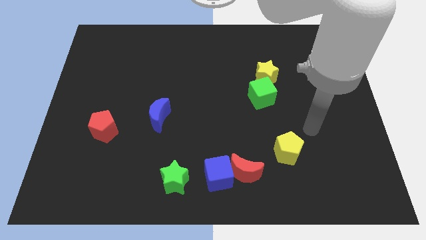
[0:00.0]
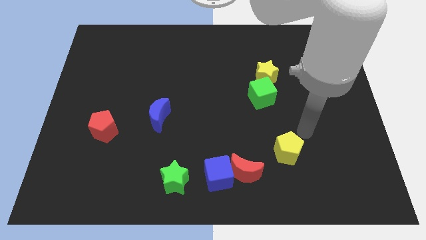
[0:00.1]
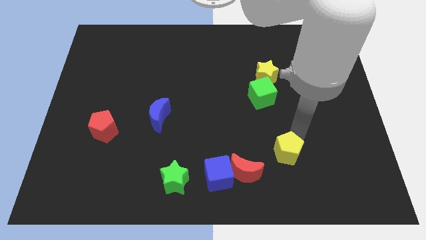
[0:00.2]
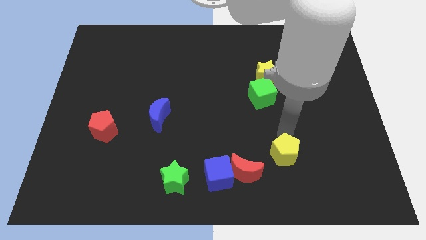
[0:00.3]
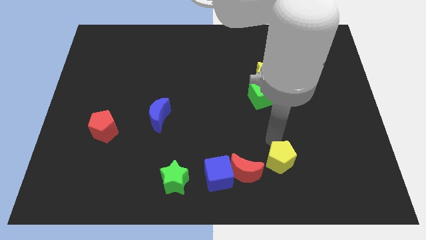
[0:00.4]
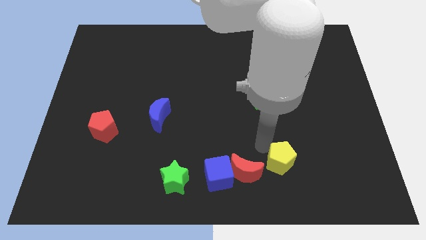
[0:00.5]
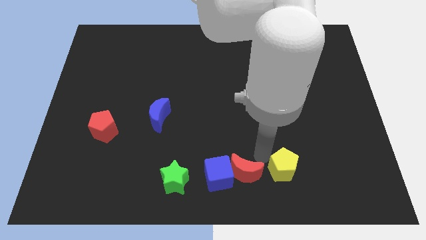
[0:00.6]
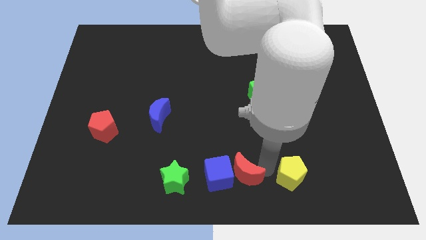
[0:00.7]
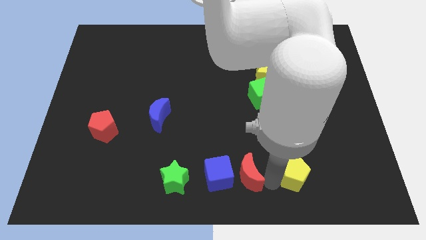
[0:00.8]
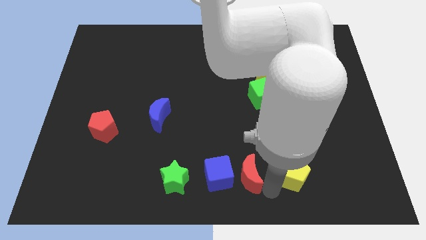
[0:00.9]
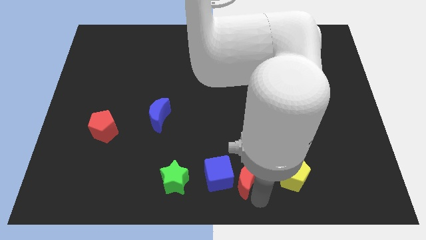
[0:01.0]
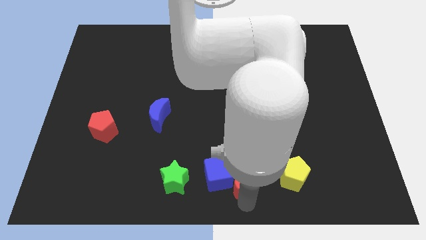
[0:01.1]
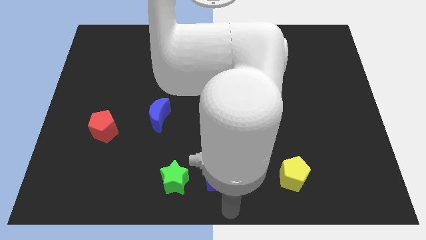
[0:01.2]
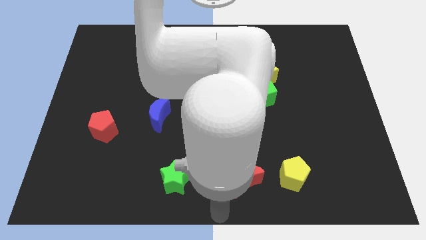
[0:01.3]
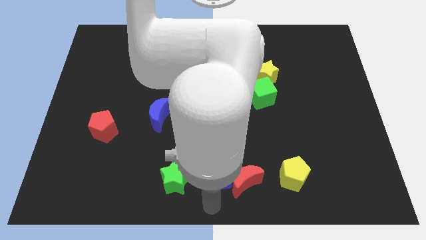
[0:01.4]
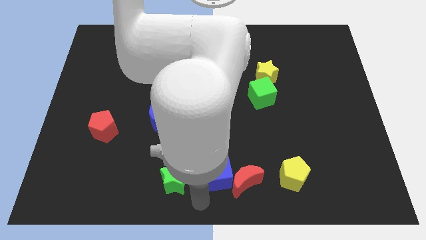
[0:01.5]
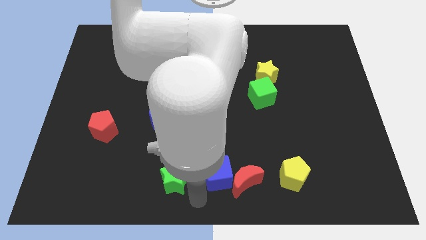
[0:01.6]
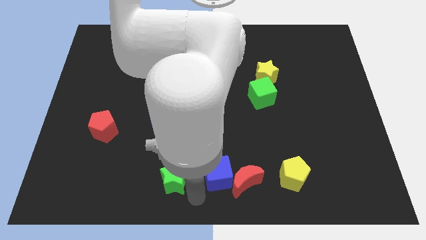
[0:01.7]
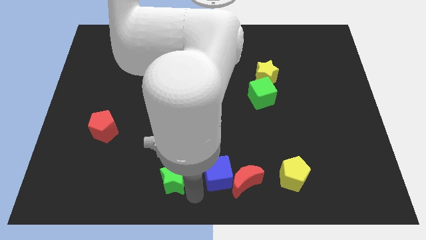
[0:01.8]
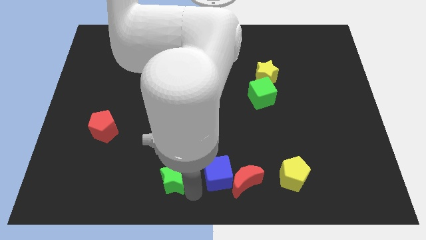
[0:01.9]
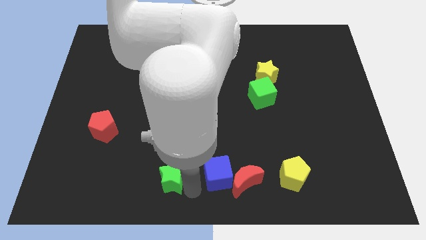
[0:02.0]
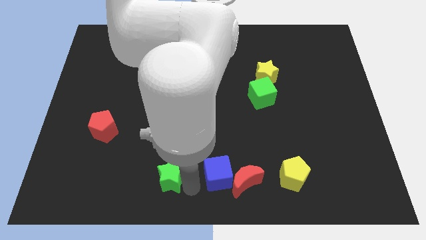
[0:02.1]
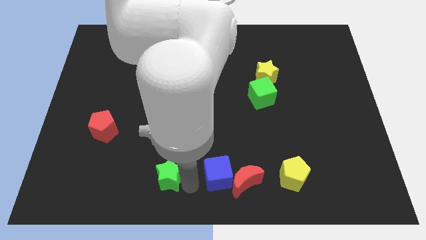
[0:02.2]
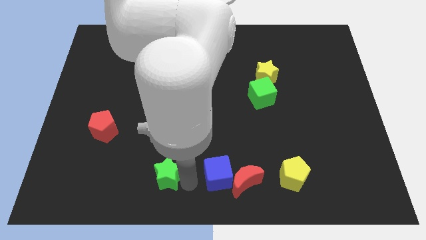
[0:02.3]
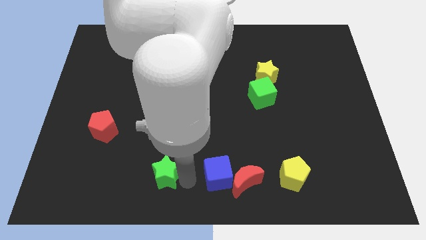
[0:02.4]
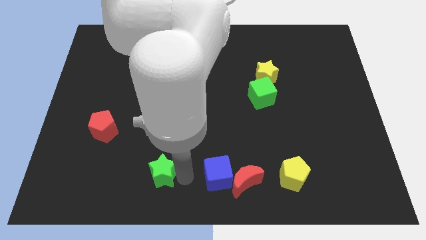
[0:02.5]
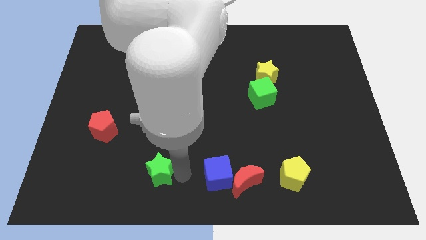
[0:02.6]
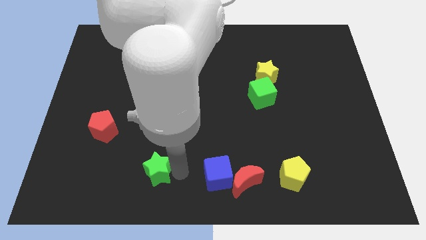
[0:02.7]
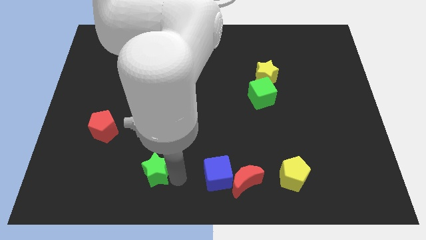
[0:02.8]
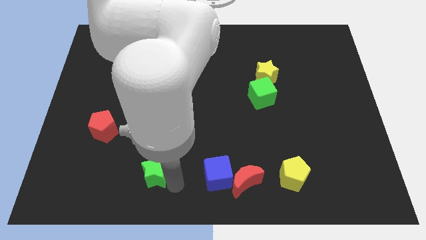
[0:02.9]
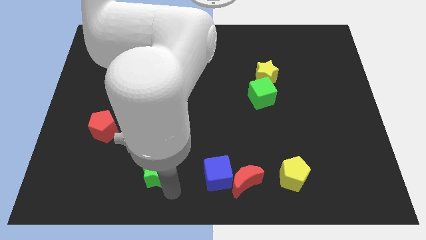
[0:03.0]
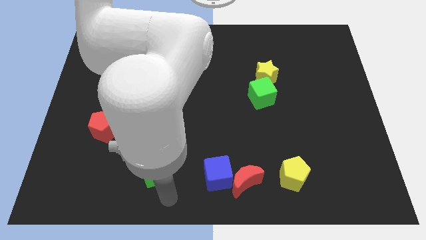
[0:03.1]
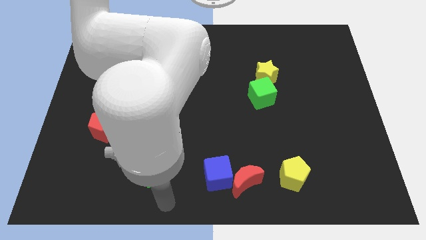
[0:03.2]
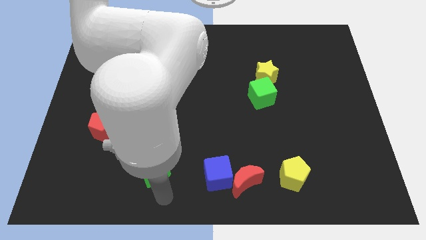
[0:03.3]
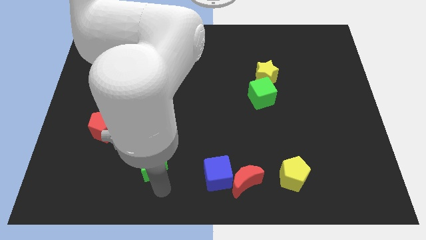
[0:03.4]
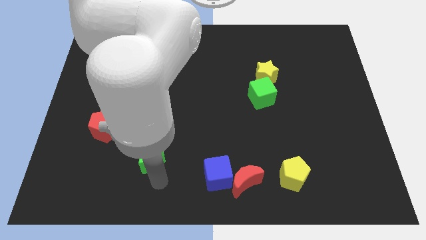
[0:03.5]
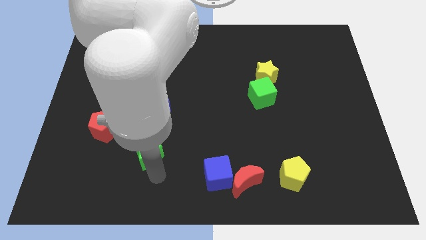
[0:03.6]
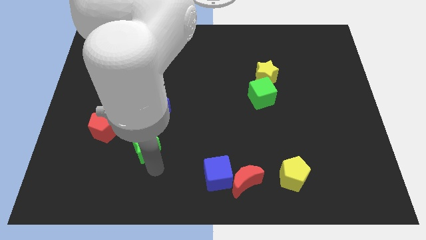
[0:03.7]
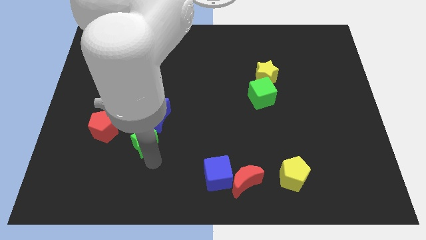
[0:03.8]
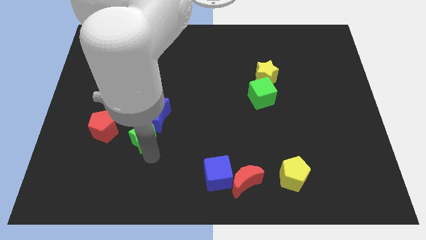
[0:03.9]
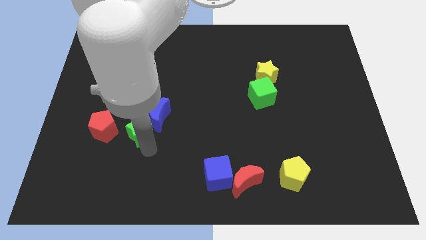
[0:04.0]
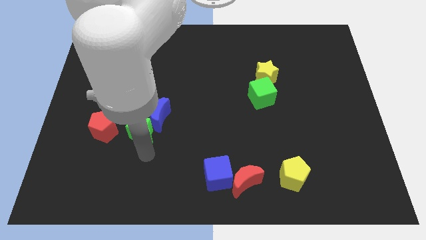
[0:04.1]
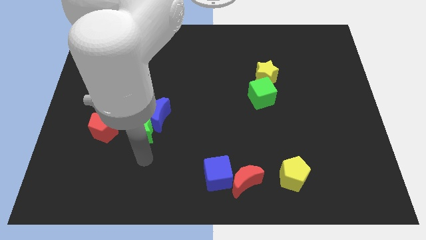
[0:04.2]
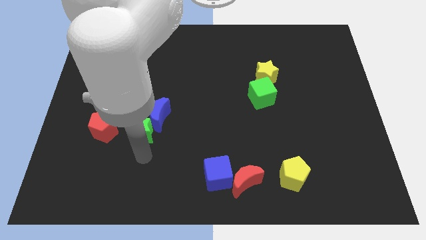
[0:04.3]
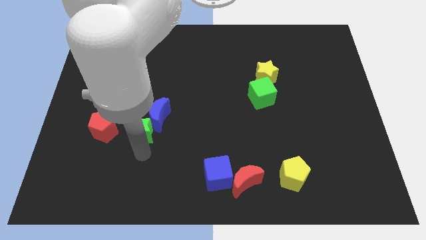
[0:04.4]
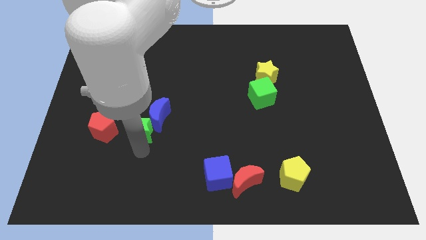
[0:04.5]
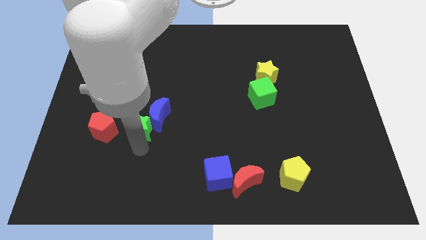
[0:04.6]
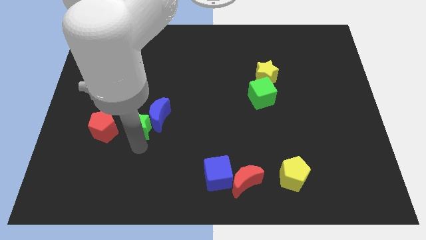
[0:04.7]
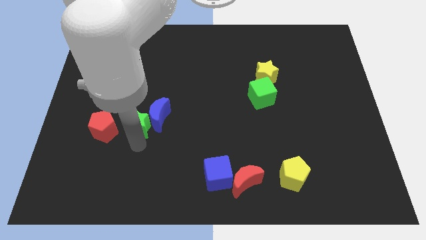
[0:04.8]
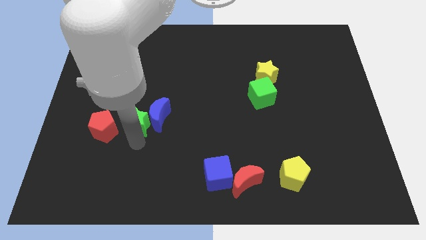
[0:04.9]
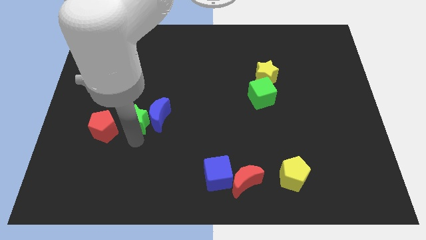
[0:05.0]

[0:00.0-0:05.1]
push the green star diagonally up and to the left of the blue moon

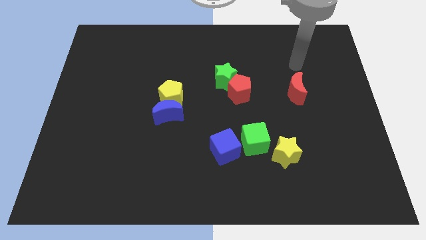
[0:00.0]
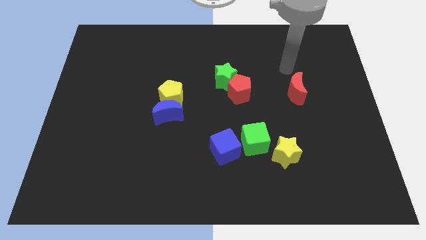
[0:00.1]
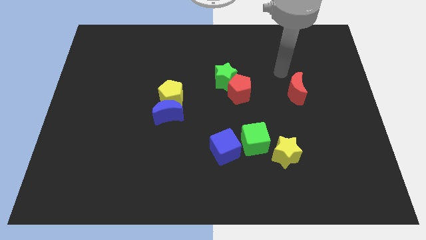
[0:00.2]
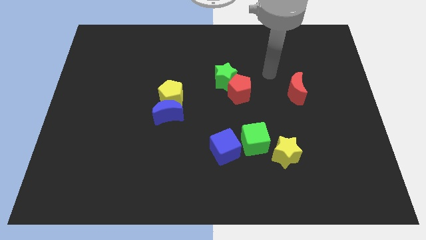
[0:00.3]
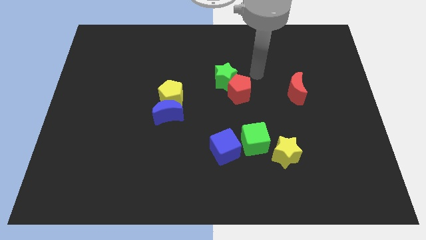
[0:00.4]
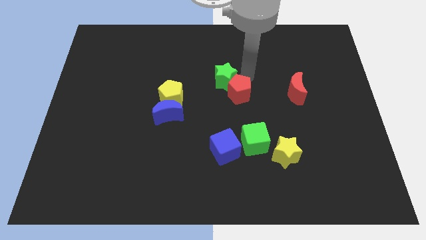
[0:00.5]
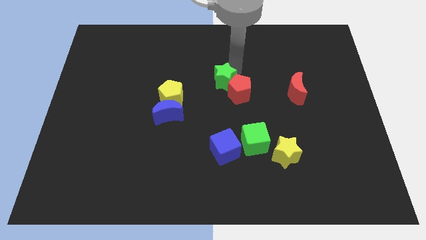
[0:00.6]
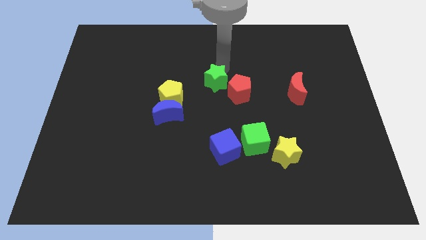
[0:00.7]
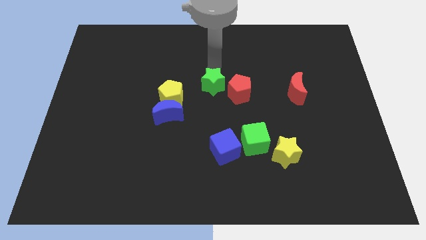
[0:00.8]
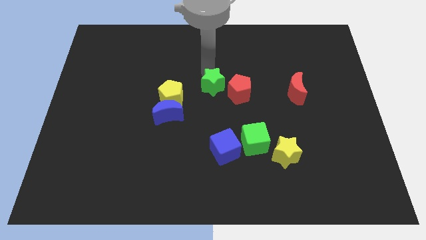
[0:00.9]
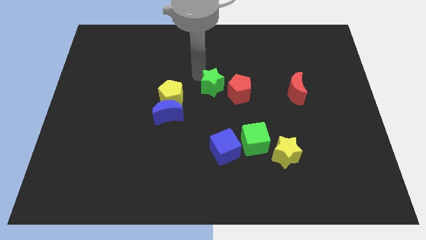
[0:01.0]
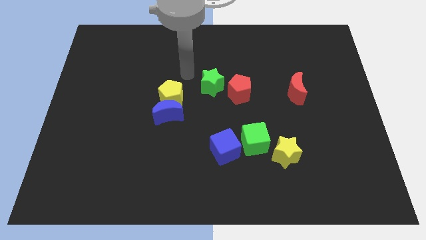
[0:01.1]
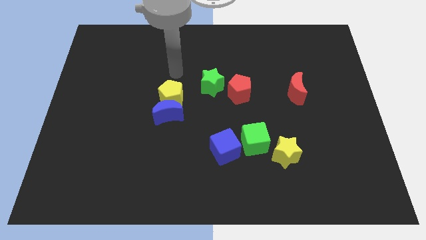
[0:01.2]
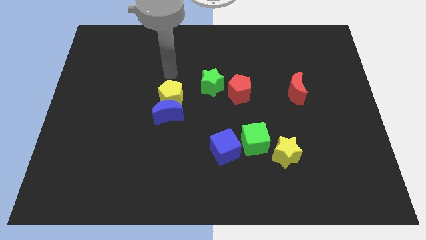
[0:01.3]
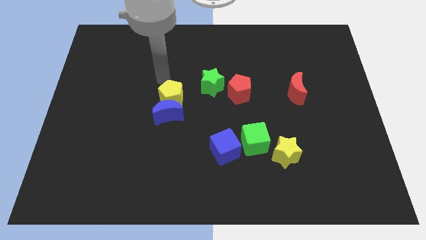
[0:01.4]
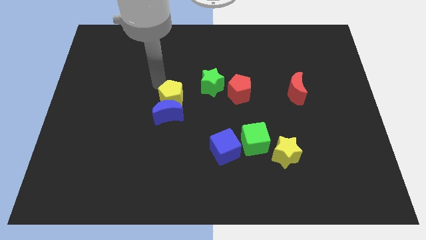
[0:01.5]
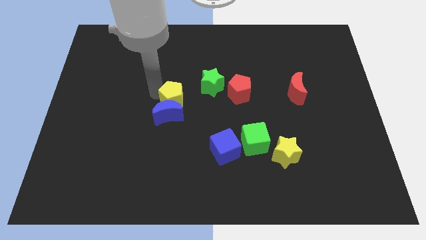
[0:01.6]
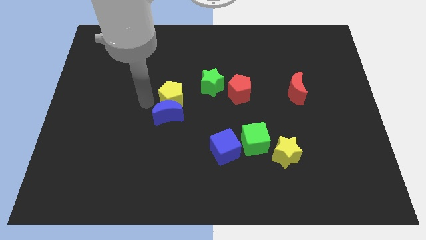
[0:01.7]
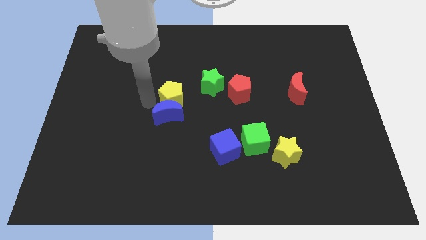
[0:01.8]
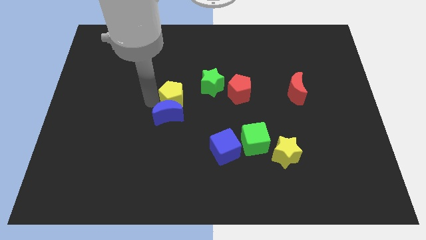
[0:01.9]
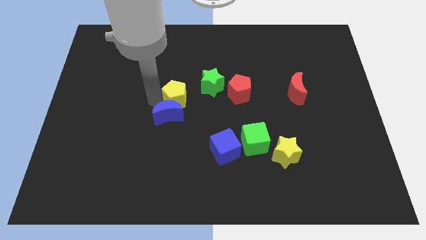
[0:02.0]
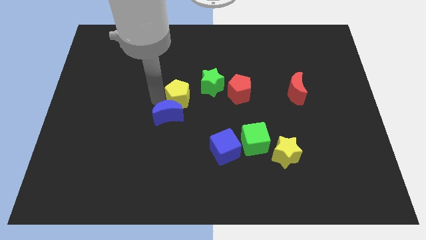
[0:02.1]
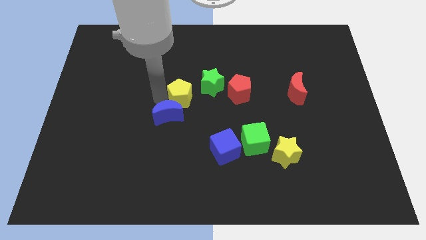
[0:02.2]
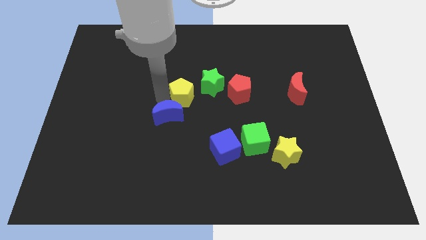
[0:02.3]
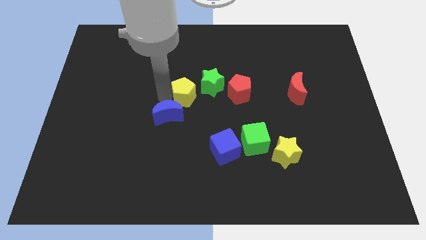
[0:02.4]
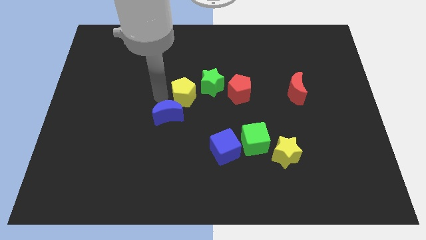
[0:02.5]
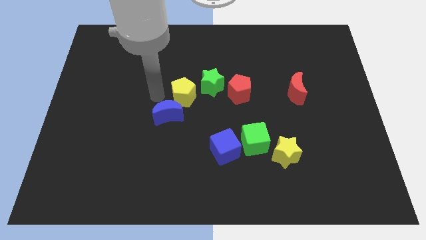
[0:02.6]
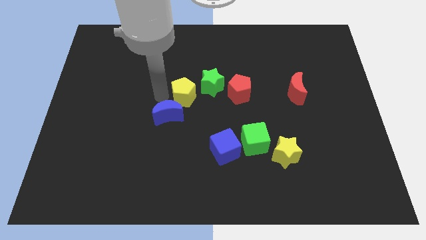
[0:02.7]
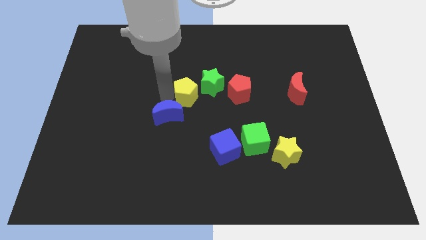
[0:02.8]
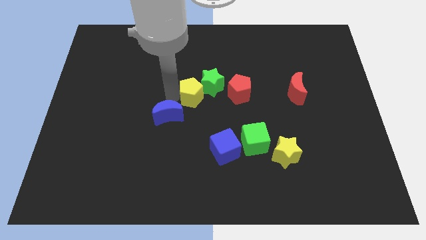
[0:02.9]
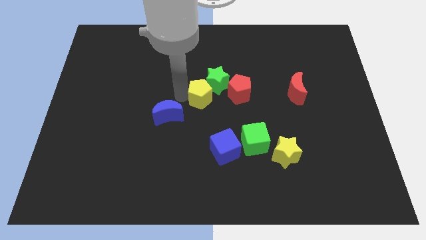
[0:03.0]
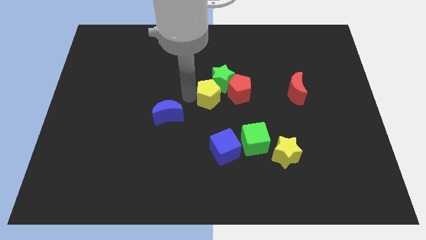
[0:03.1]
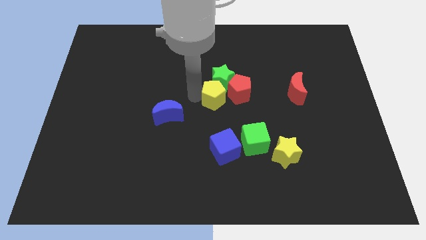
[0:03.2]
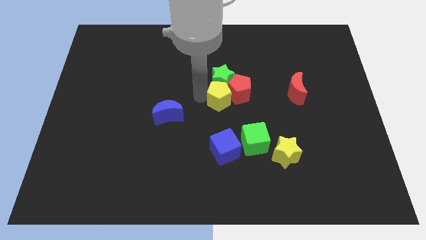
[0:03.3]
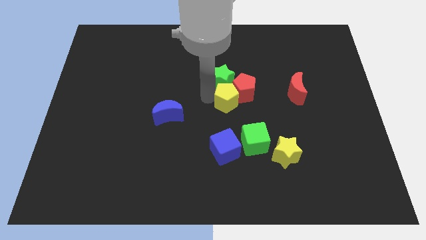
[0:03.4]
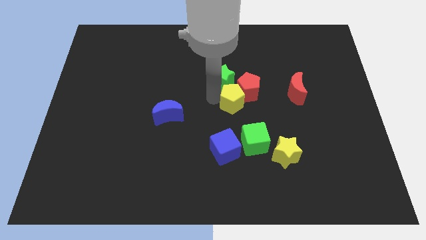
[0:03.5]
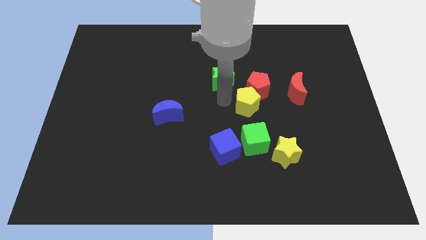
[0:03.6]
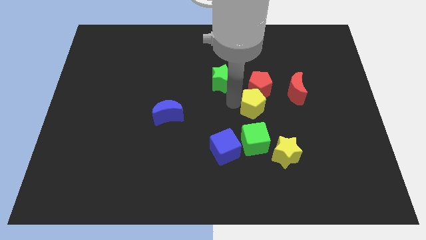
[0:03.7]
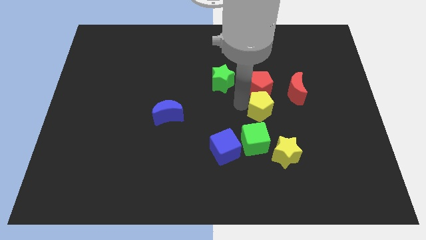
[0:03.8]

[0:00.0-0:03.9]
put the yellow pentagon to the top of the yellow star
